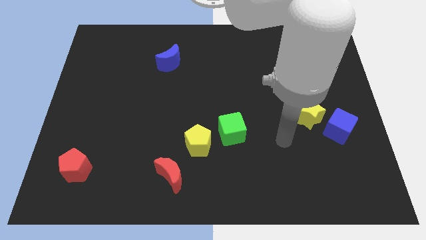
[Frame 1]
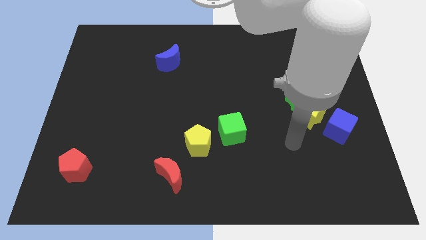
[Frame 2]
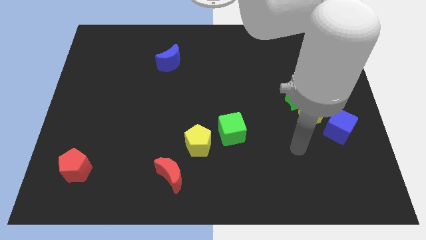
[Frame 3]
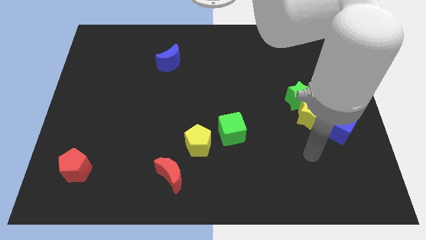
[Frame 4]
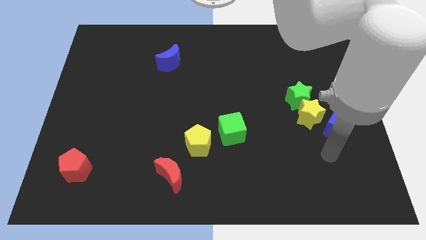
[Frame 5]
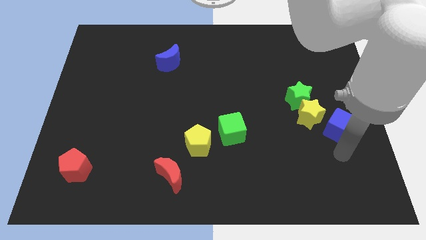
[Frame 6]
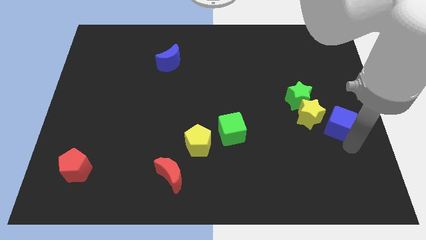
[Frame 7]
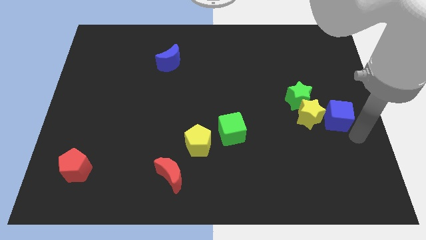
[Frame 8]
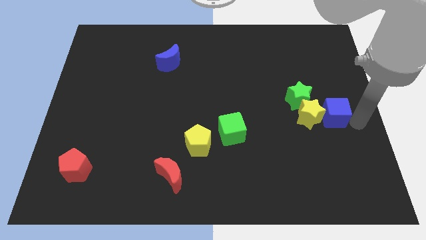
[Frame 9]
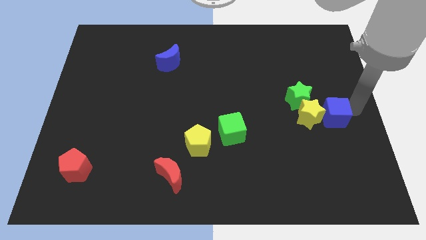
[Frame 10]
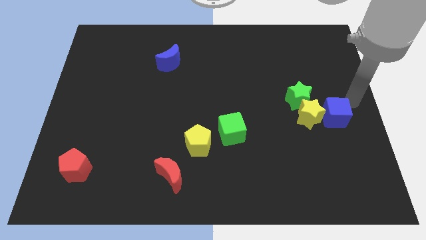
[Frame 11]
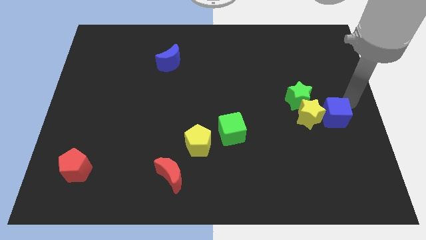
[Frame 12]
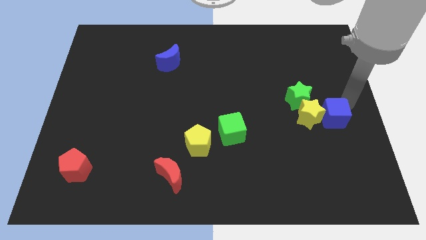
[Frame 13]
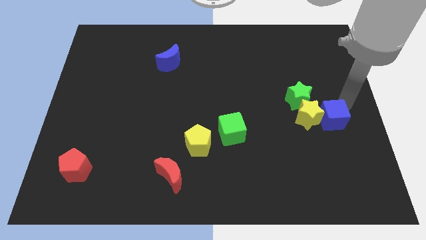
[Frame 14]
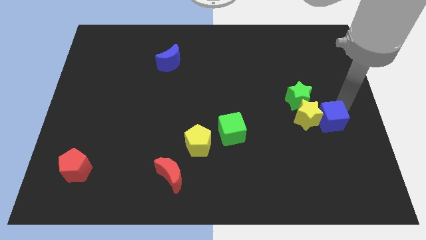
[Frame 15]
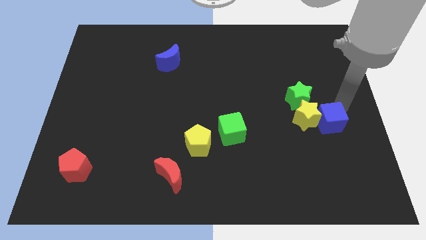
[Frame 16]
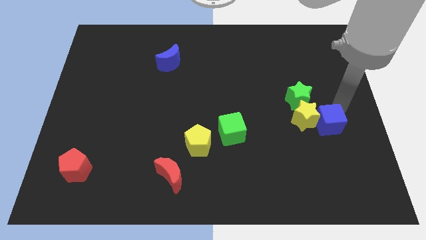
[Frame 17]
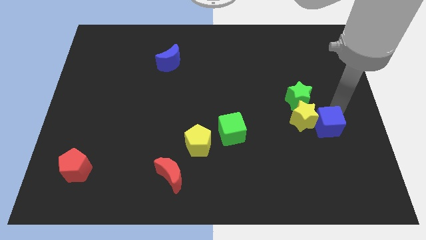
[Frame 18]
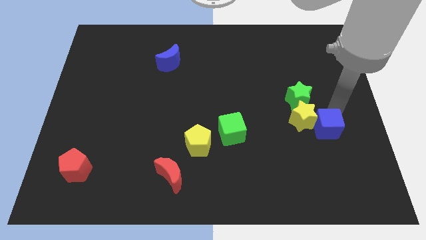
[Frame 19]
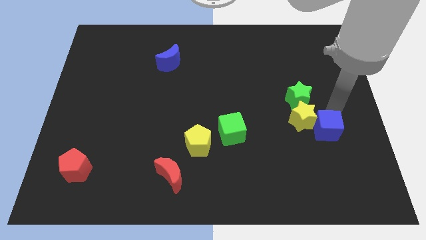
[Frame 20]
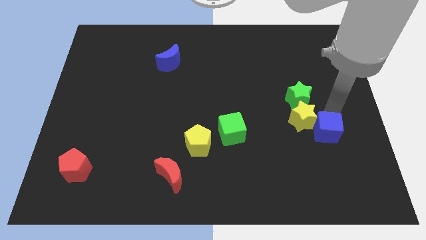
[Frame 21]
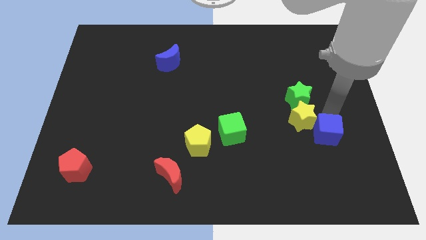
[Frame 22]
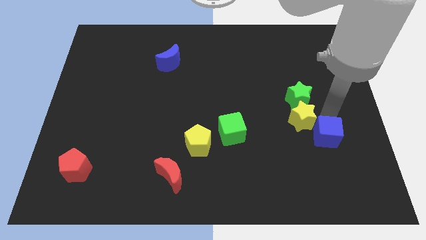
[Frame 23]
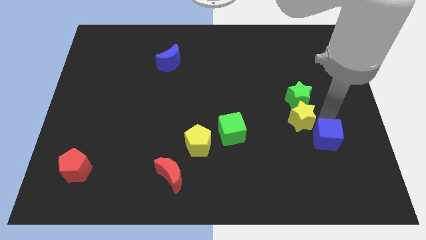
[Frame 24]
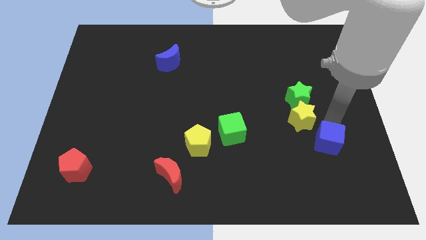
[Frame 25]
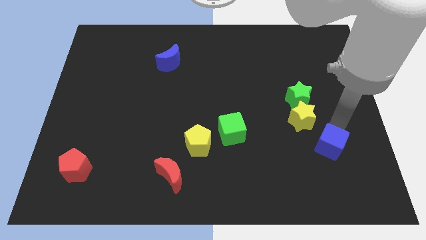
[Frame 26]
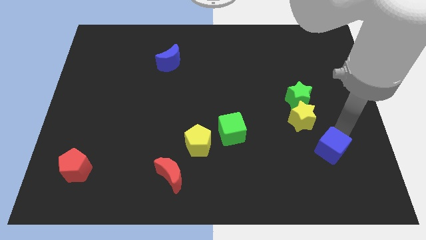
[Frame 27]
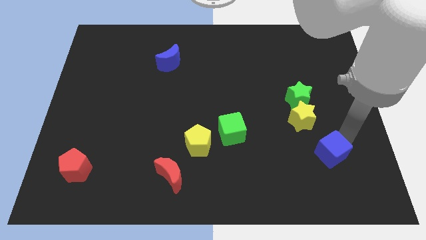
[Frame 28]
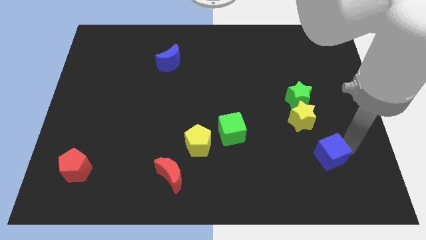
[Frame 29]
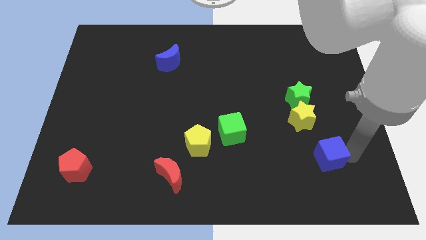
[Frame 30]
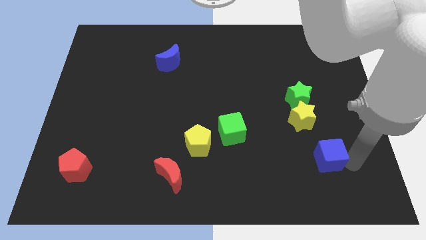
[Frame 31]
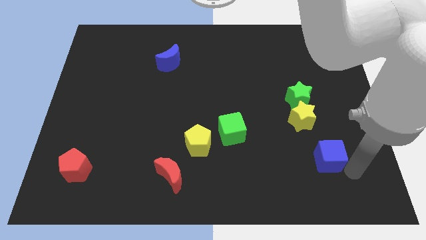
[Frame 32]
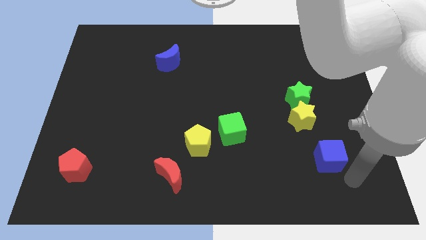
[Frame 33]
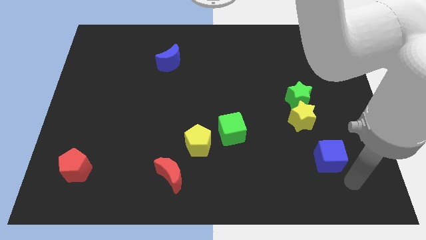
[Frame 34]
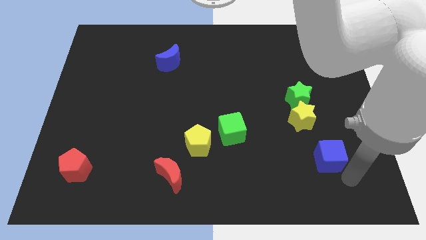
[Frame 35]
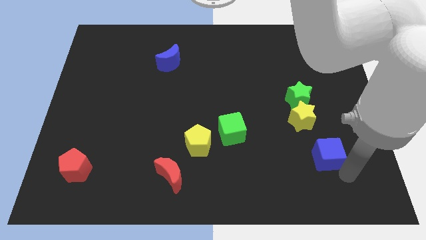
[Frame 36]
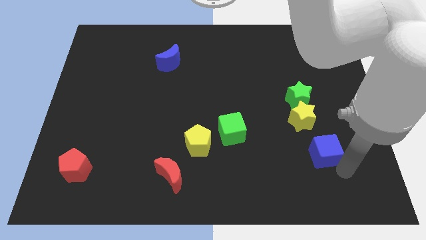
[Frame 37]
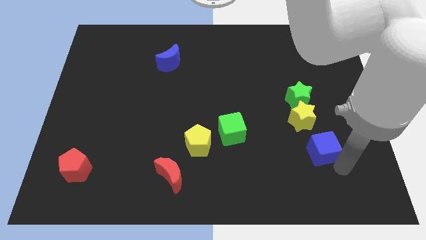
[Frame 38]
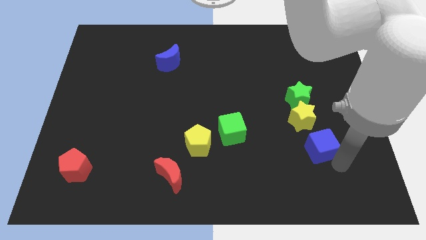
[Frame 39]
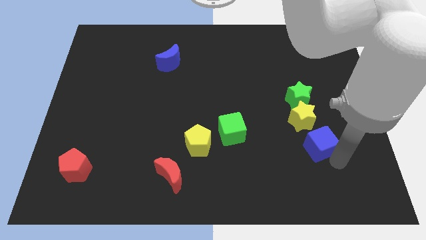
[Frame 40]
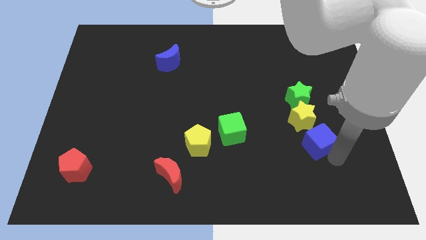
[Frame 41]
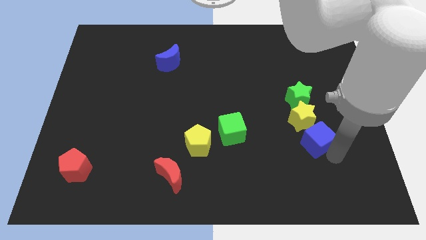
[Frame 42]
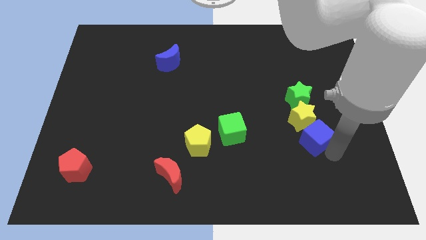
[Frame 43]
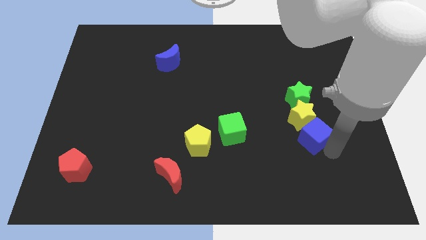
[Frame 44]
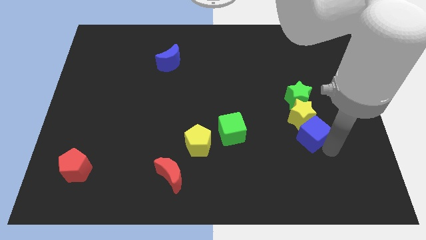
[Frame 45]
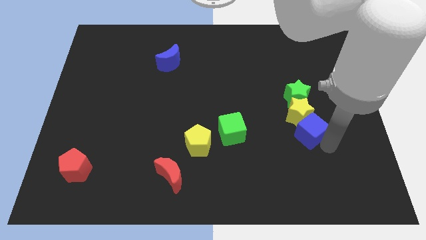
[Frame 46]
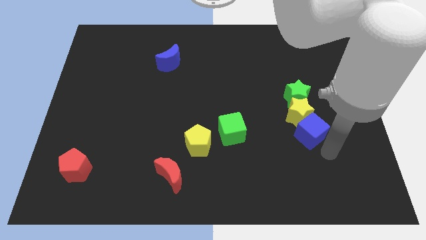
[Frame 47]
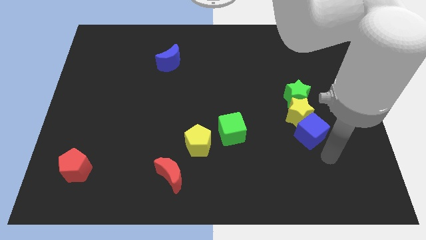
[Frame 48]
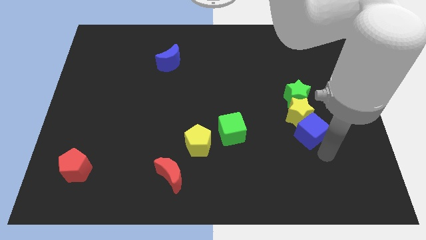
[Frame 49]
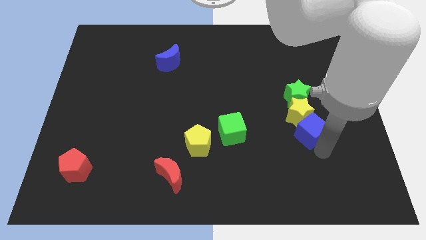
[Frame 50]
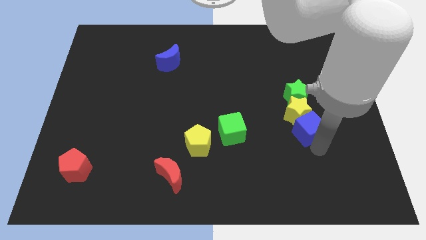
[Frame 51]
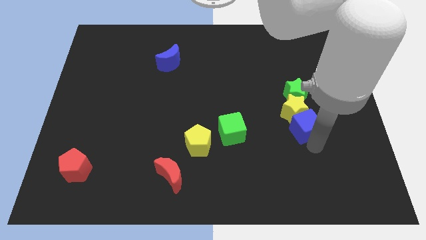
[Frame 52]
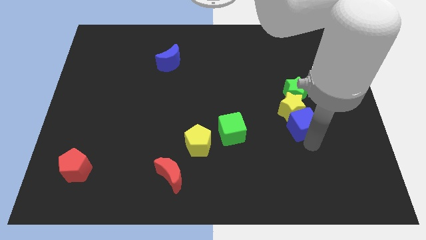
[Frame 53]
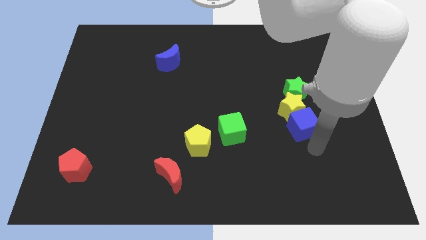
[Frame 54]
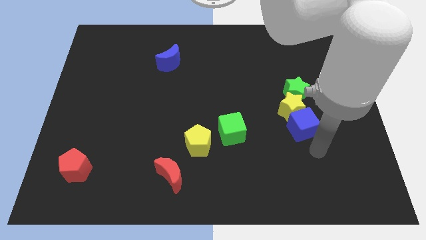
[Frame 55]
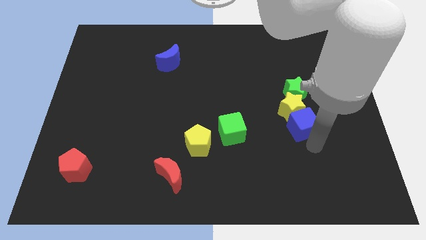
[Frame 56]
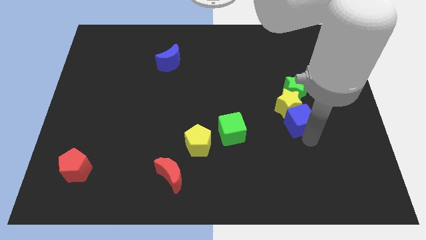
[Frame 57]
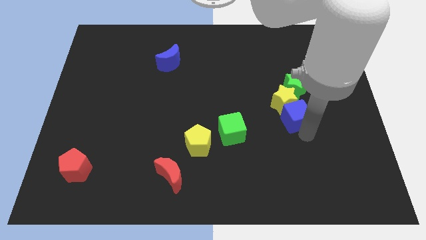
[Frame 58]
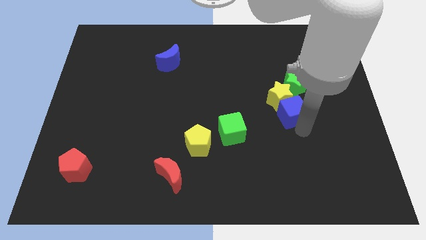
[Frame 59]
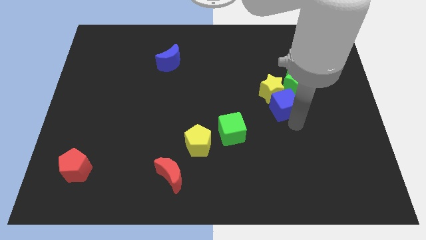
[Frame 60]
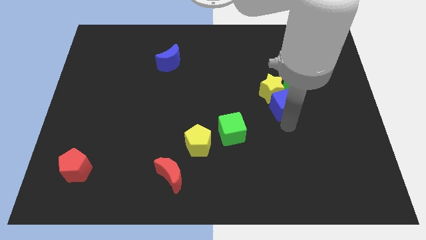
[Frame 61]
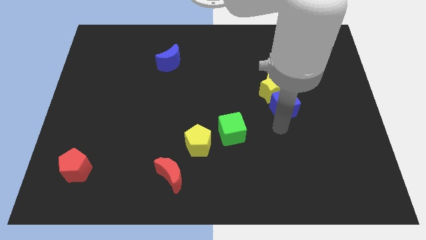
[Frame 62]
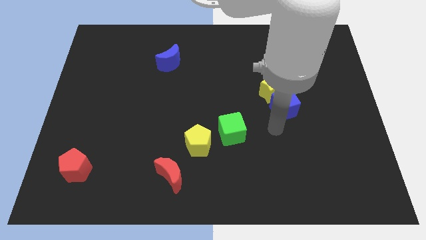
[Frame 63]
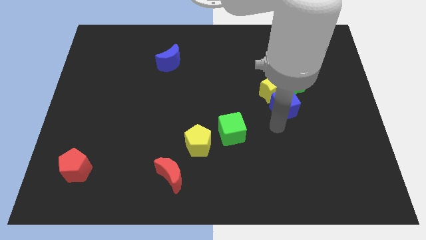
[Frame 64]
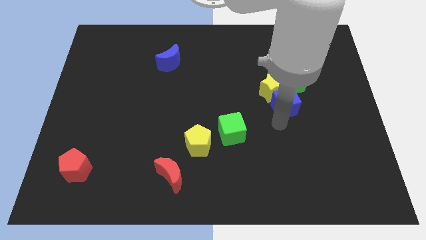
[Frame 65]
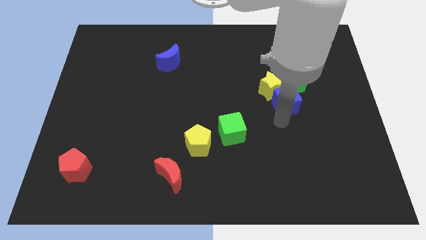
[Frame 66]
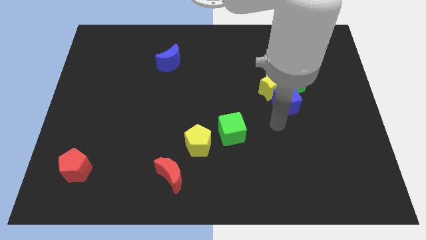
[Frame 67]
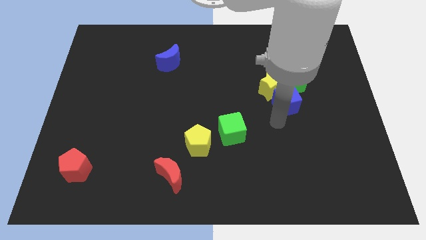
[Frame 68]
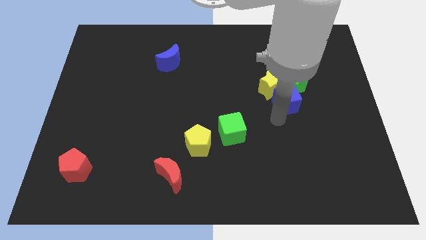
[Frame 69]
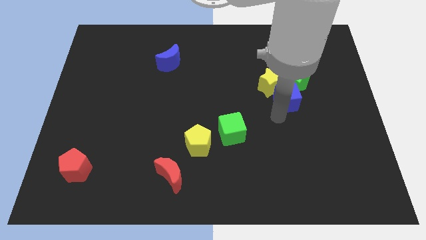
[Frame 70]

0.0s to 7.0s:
move the blue cube next to the green star

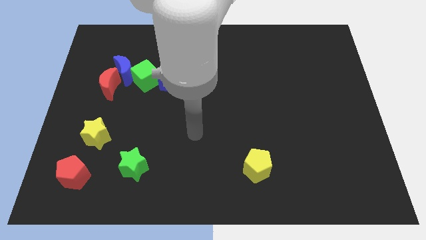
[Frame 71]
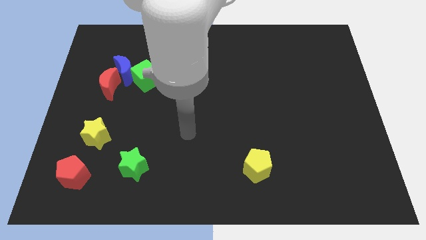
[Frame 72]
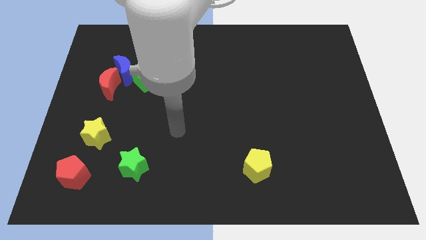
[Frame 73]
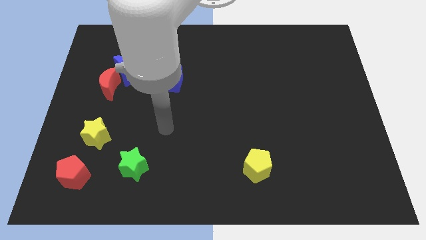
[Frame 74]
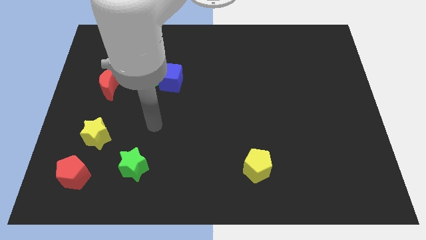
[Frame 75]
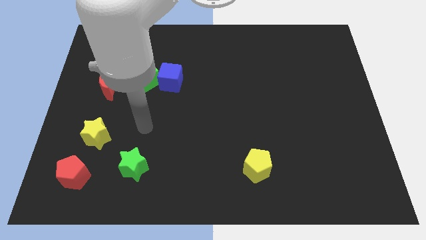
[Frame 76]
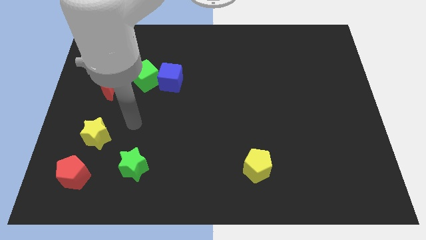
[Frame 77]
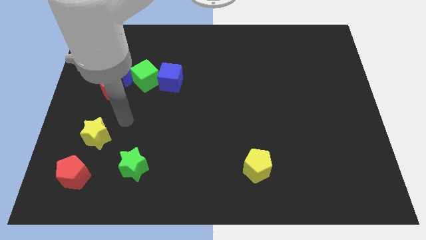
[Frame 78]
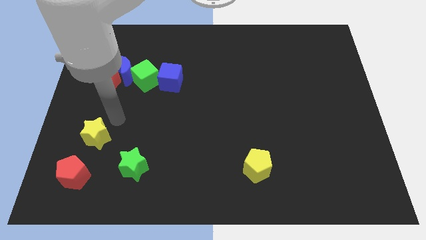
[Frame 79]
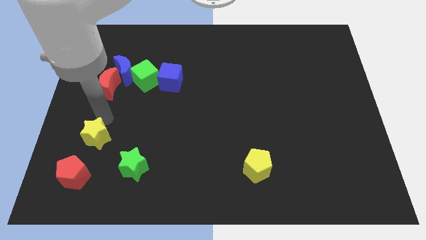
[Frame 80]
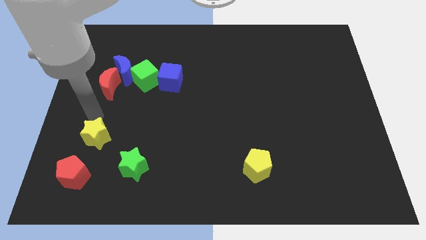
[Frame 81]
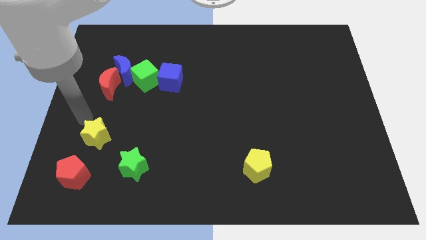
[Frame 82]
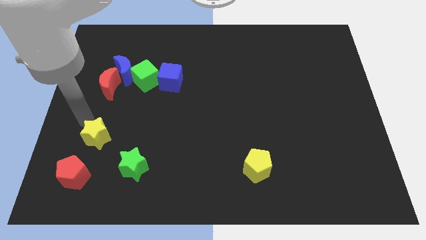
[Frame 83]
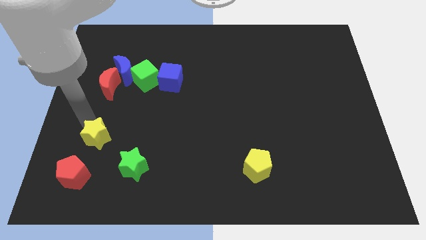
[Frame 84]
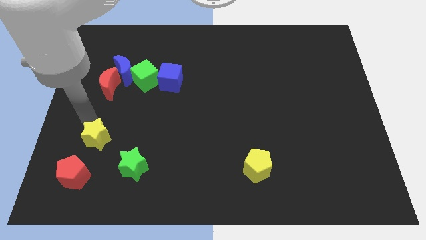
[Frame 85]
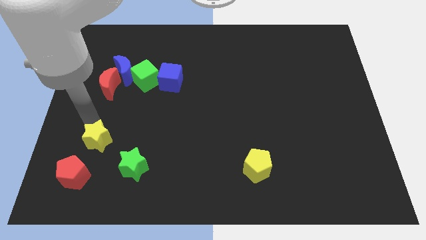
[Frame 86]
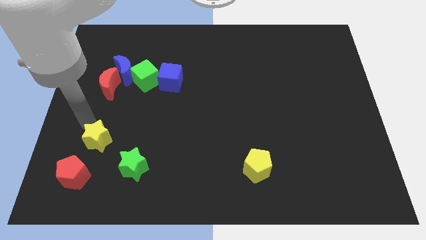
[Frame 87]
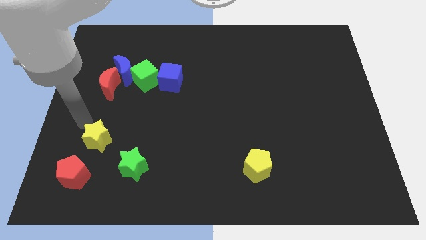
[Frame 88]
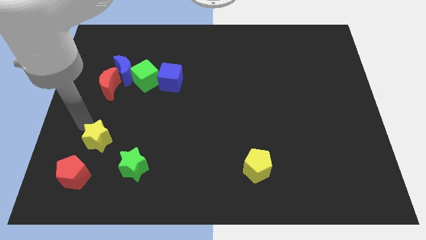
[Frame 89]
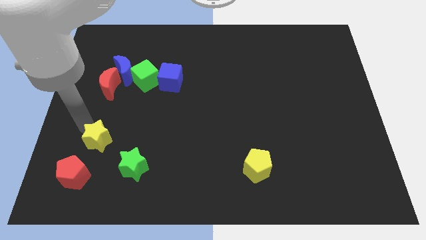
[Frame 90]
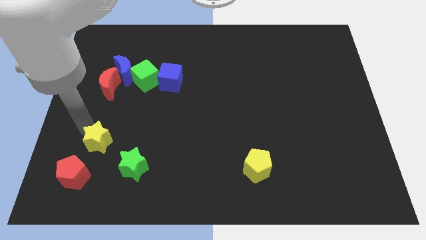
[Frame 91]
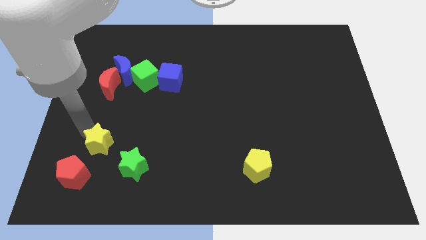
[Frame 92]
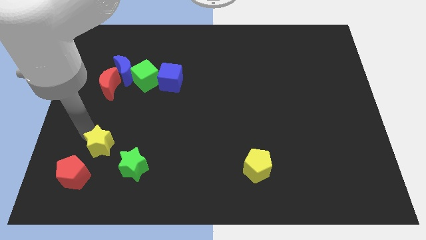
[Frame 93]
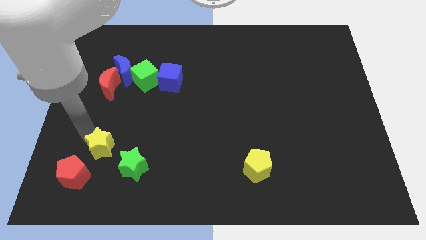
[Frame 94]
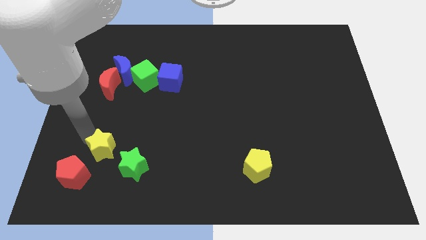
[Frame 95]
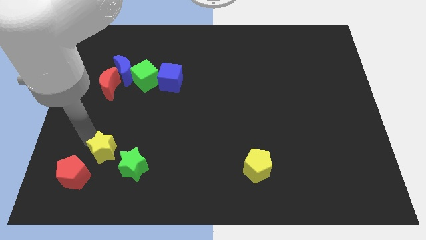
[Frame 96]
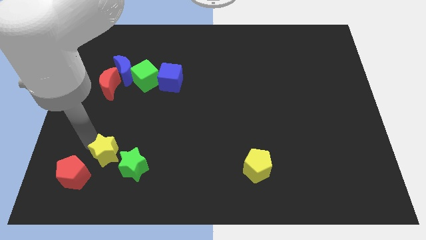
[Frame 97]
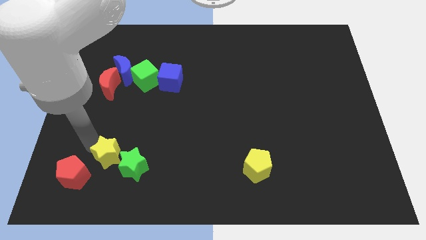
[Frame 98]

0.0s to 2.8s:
push the yellow star close to the green star
